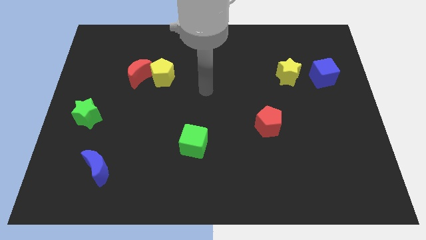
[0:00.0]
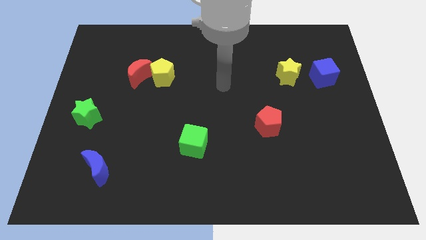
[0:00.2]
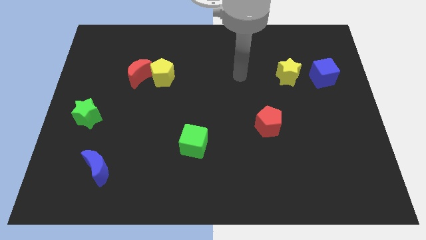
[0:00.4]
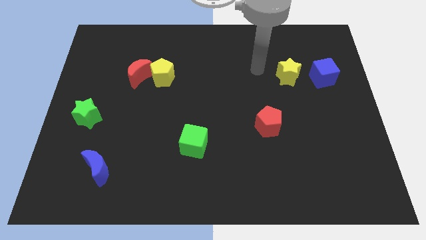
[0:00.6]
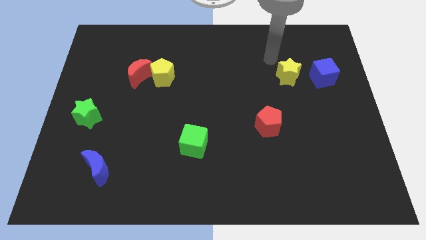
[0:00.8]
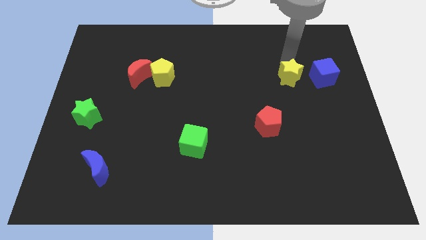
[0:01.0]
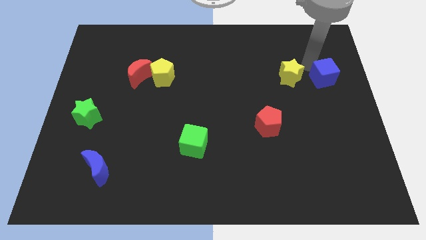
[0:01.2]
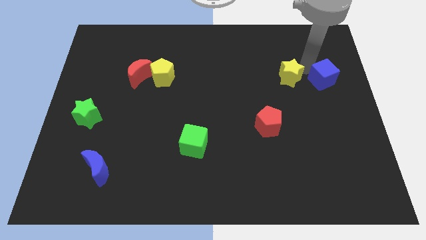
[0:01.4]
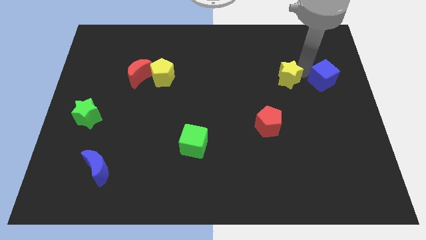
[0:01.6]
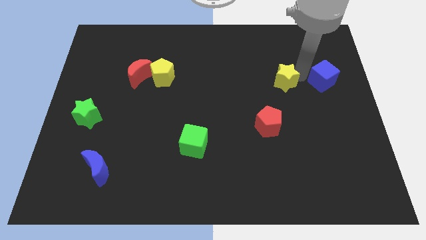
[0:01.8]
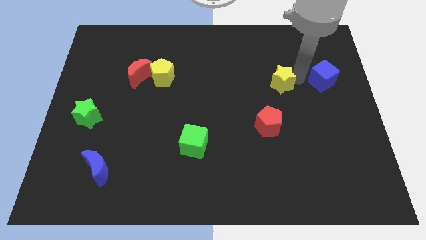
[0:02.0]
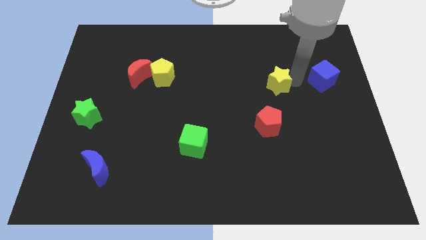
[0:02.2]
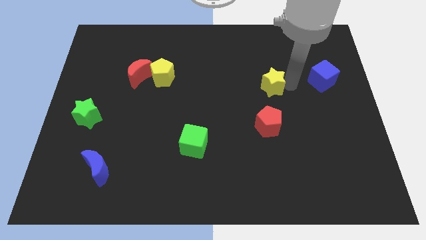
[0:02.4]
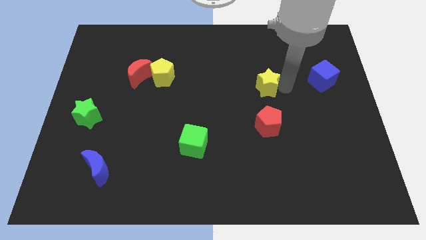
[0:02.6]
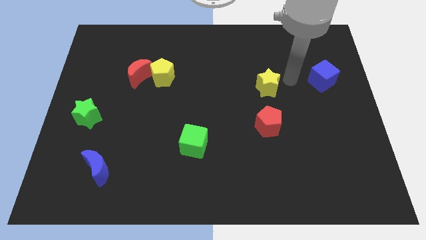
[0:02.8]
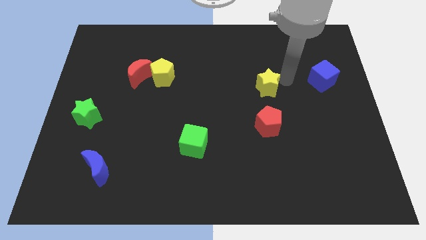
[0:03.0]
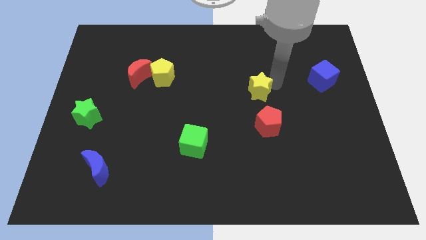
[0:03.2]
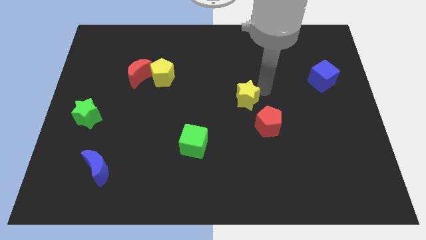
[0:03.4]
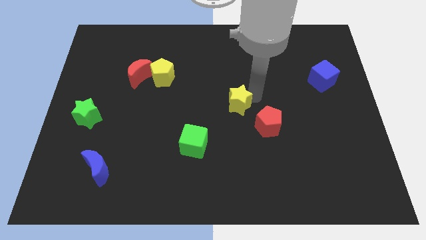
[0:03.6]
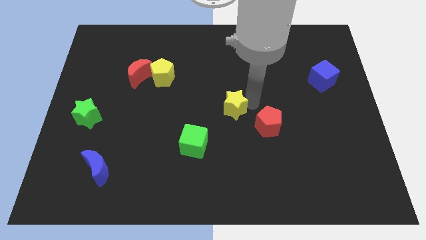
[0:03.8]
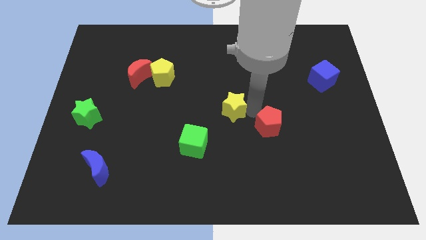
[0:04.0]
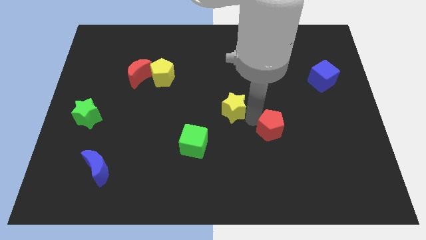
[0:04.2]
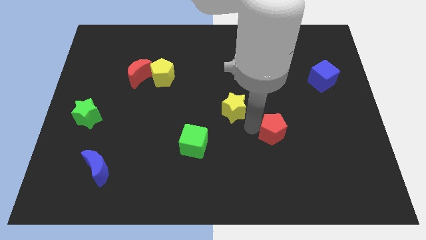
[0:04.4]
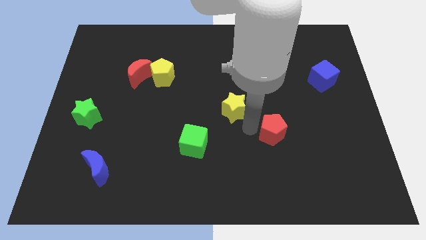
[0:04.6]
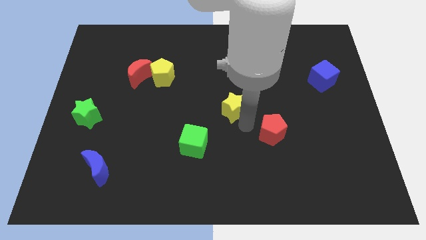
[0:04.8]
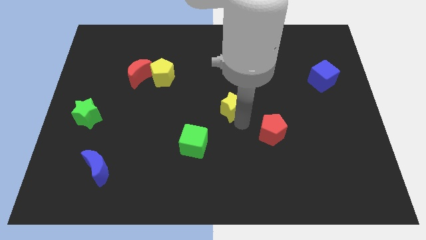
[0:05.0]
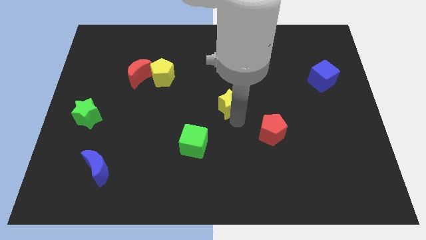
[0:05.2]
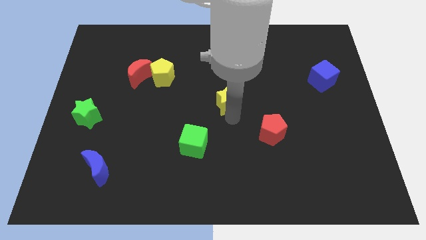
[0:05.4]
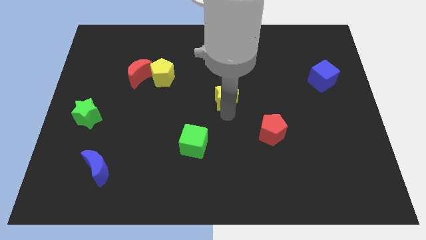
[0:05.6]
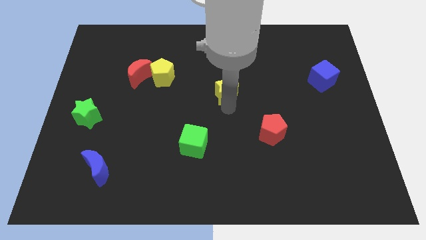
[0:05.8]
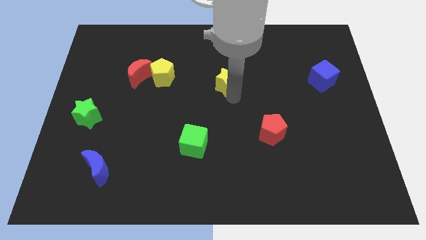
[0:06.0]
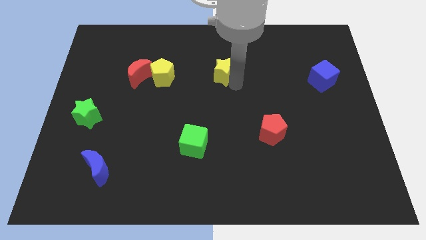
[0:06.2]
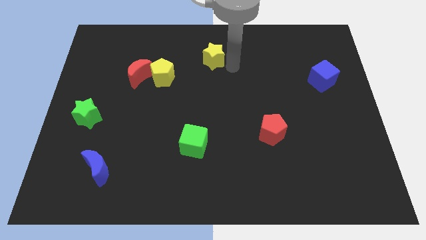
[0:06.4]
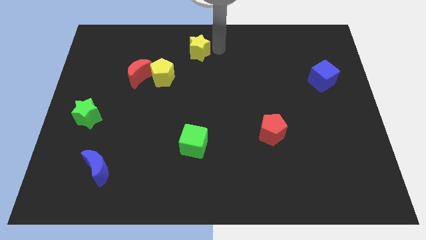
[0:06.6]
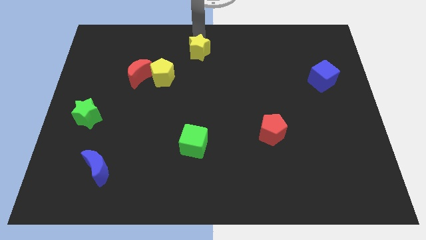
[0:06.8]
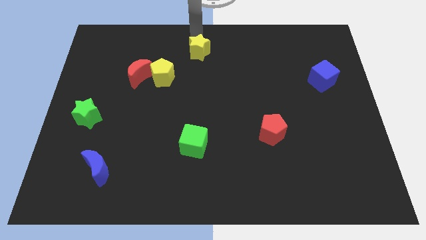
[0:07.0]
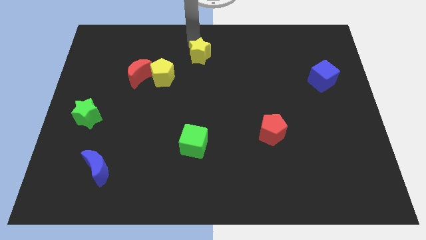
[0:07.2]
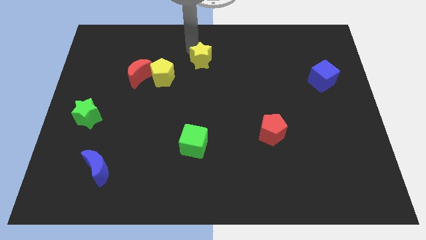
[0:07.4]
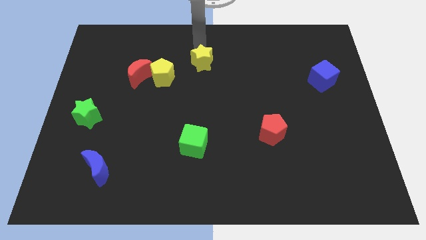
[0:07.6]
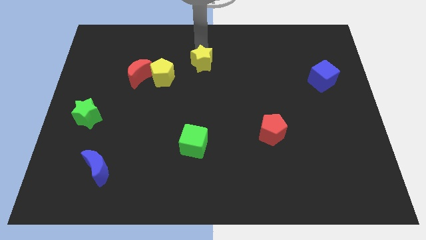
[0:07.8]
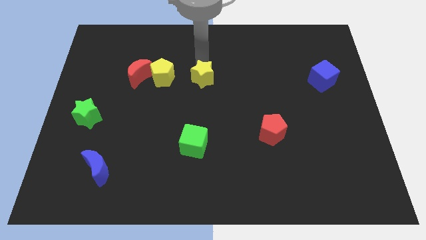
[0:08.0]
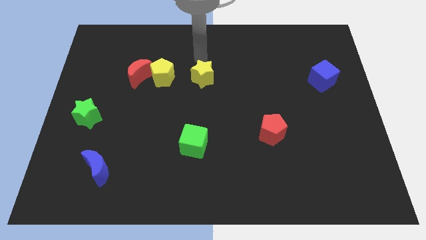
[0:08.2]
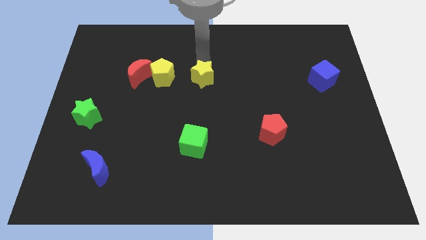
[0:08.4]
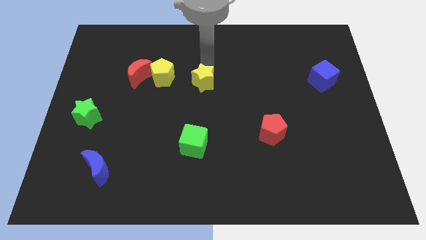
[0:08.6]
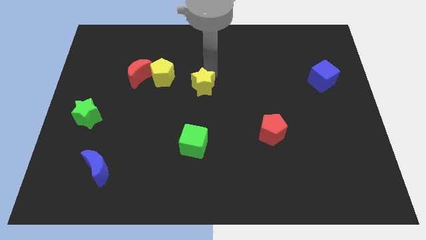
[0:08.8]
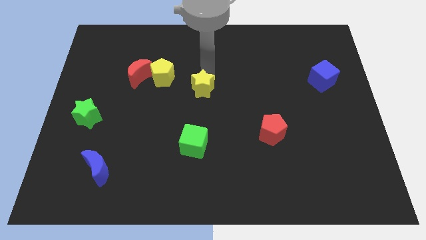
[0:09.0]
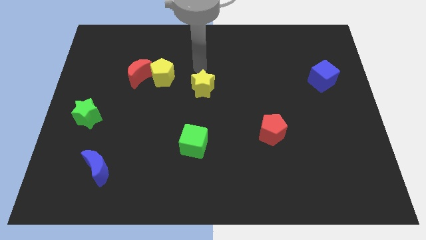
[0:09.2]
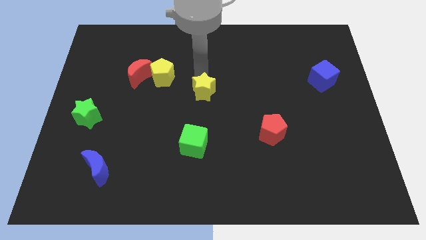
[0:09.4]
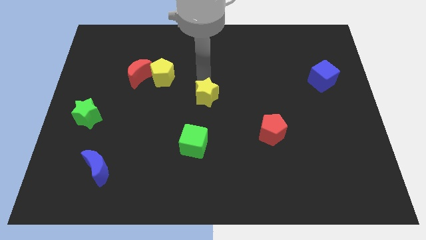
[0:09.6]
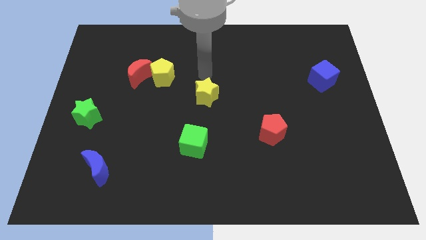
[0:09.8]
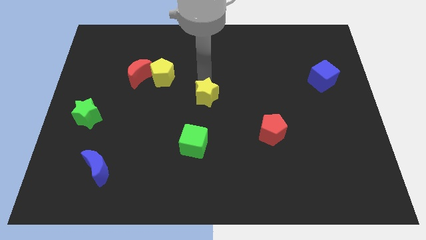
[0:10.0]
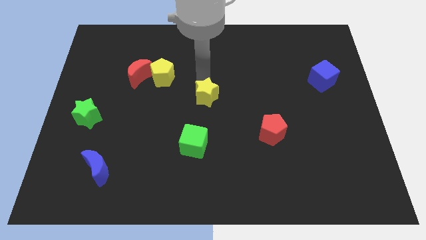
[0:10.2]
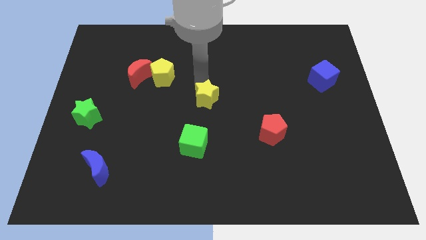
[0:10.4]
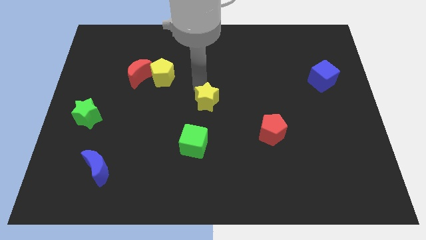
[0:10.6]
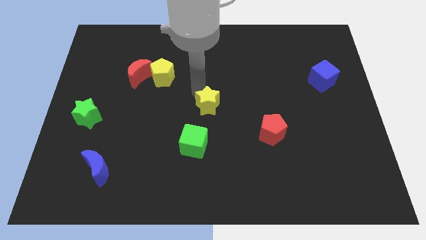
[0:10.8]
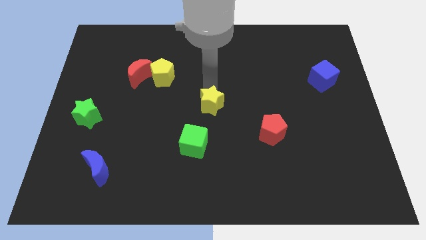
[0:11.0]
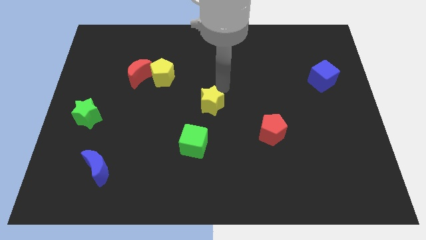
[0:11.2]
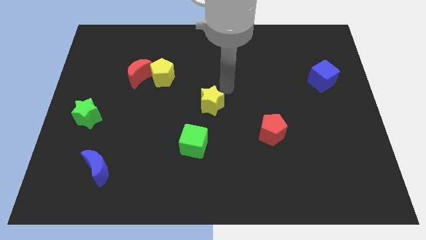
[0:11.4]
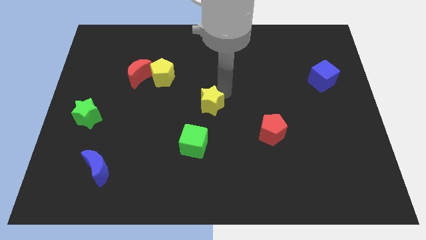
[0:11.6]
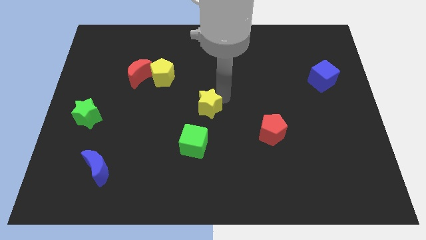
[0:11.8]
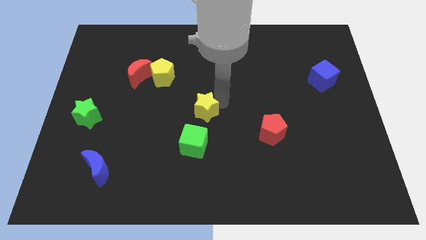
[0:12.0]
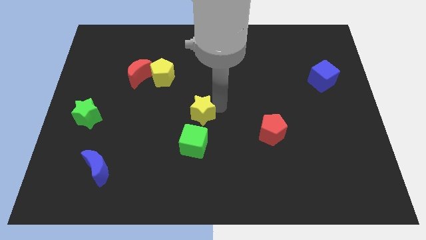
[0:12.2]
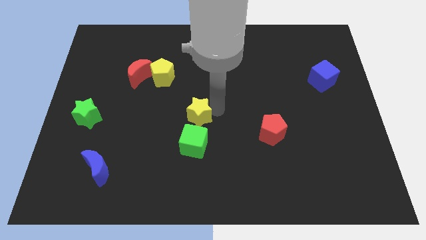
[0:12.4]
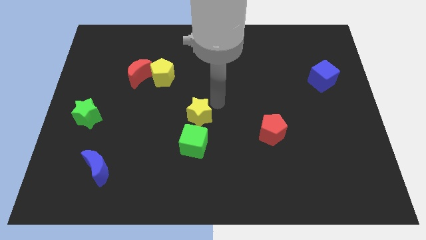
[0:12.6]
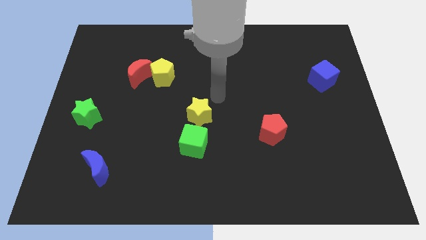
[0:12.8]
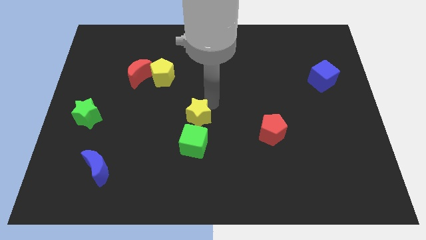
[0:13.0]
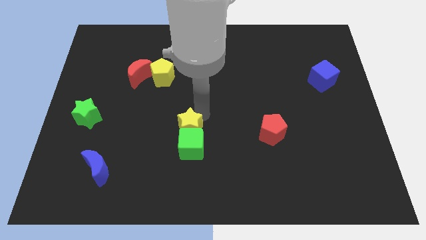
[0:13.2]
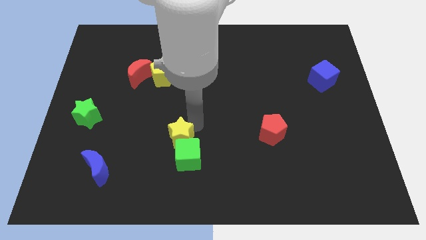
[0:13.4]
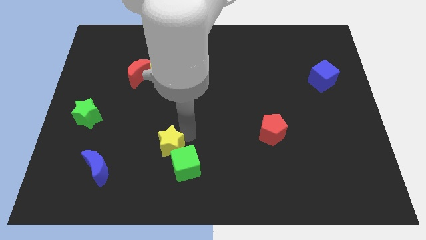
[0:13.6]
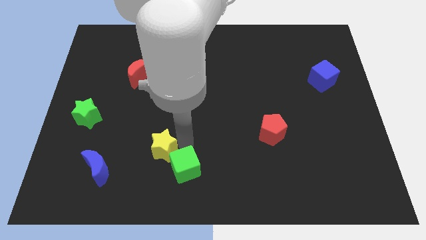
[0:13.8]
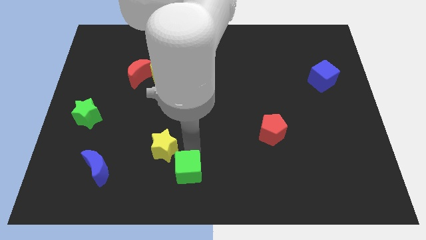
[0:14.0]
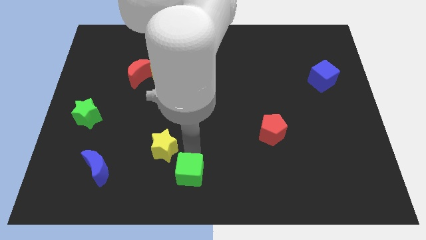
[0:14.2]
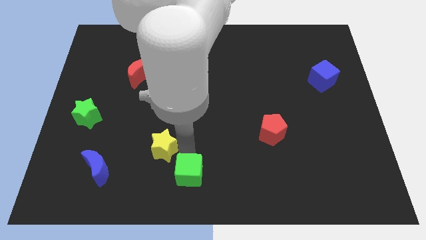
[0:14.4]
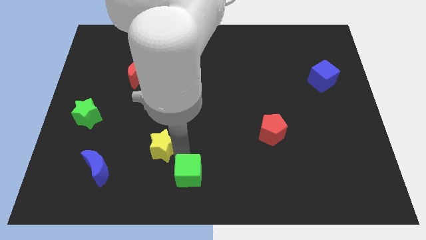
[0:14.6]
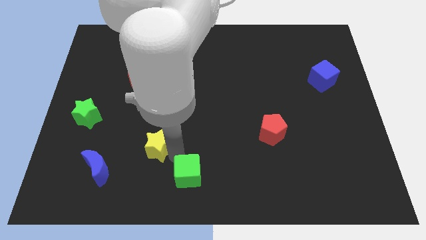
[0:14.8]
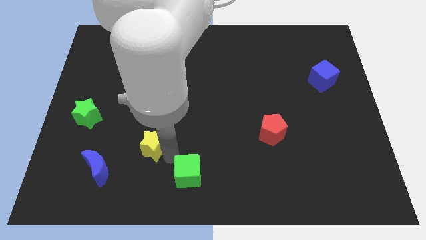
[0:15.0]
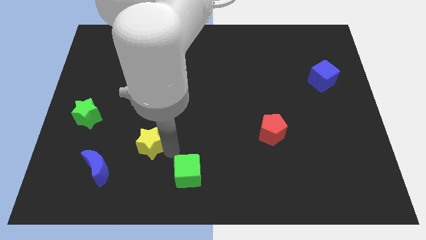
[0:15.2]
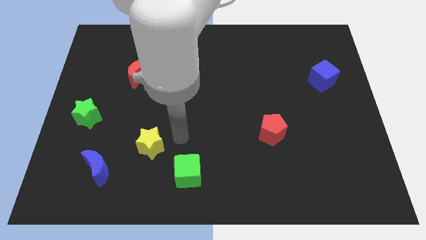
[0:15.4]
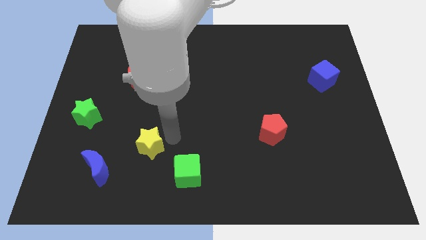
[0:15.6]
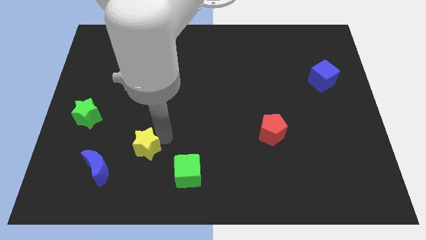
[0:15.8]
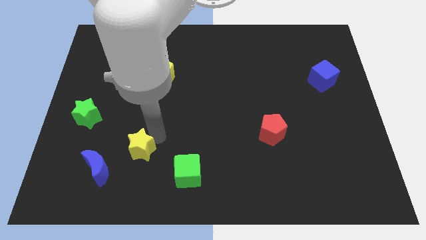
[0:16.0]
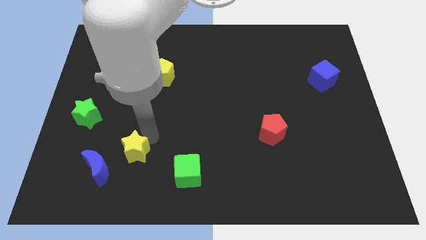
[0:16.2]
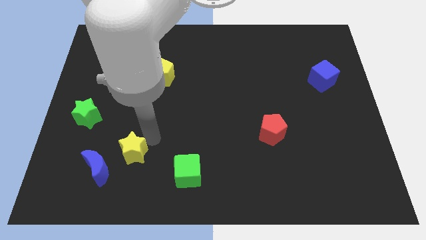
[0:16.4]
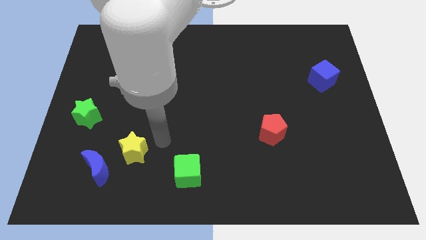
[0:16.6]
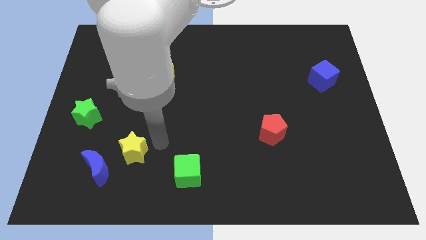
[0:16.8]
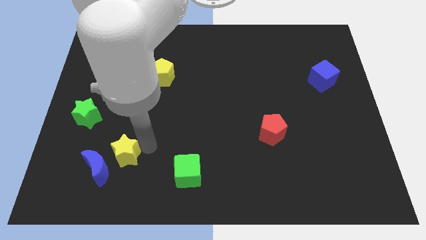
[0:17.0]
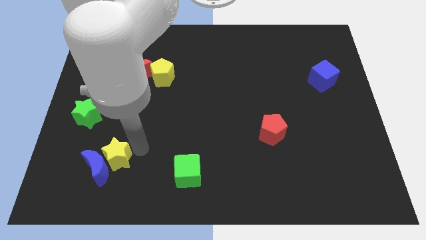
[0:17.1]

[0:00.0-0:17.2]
move the yellow star to the blue moon
